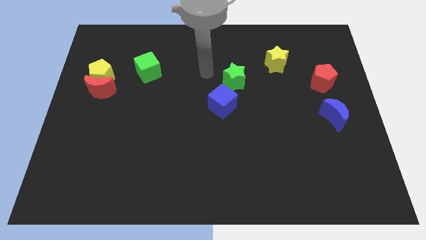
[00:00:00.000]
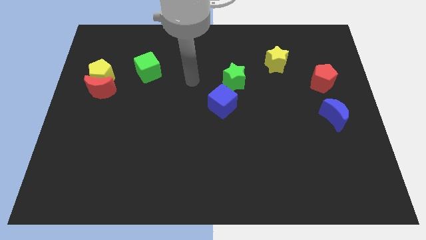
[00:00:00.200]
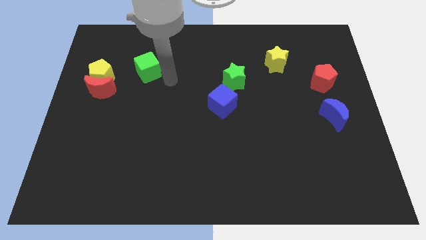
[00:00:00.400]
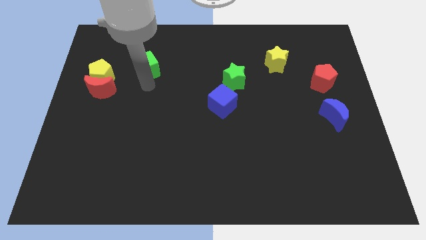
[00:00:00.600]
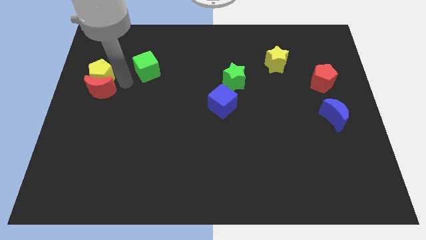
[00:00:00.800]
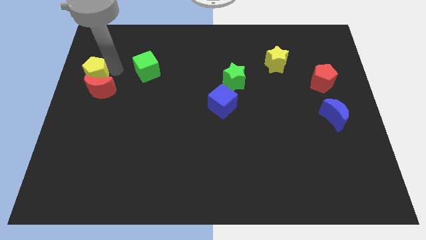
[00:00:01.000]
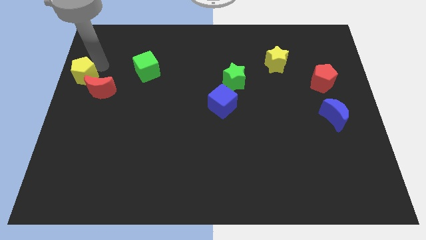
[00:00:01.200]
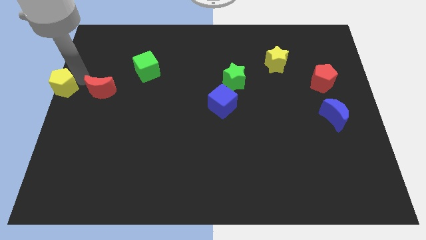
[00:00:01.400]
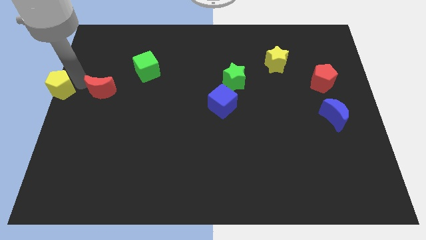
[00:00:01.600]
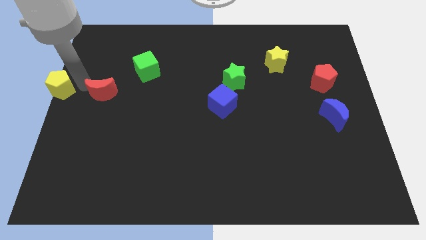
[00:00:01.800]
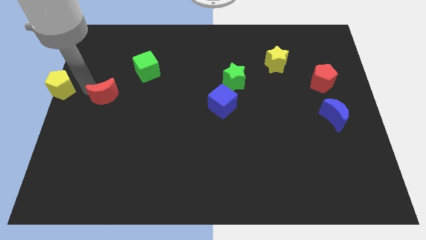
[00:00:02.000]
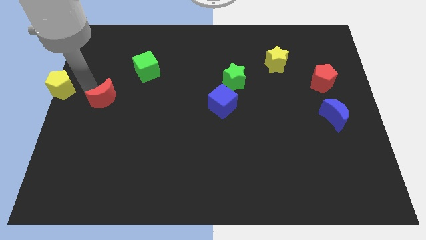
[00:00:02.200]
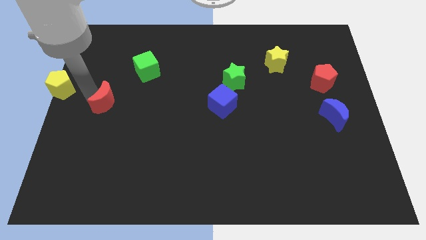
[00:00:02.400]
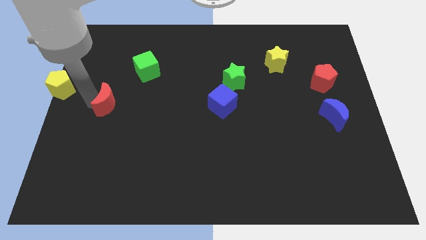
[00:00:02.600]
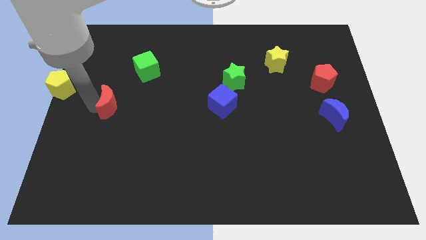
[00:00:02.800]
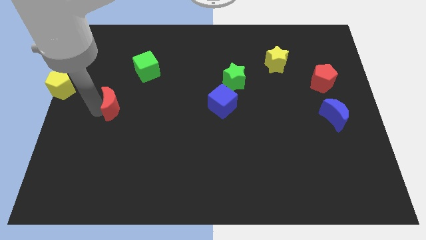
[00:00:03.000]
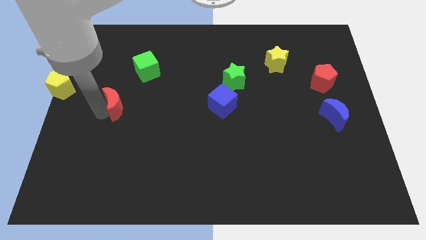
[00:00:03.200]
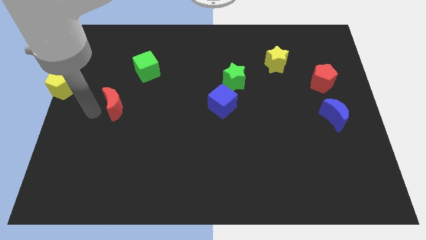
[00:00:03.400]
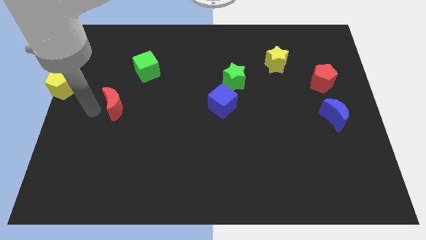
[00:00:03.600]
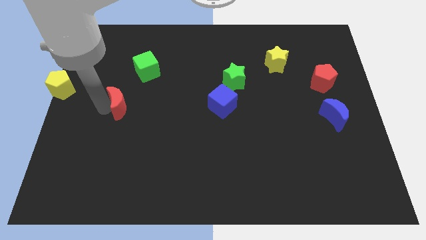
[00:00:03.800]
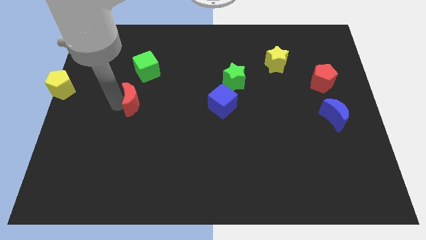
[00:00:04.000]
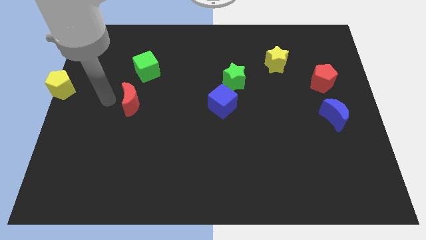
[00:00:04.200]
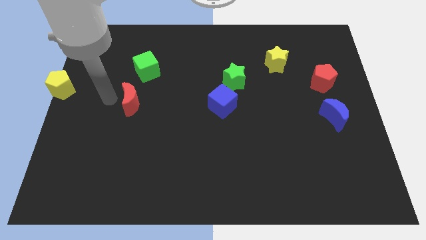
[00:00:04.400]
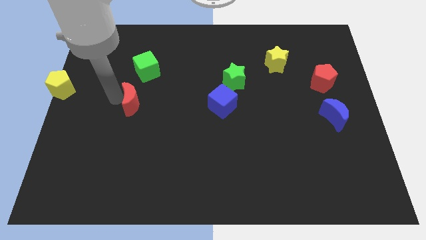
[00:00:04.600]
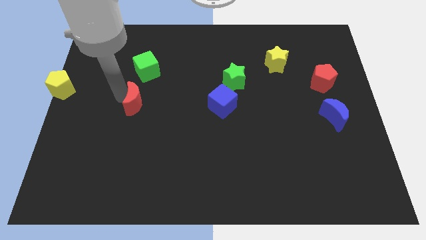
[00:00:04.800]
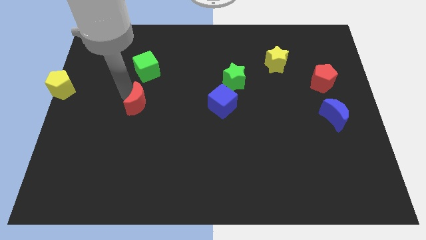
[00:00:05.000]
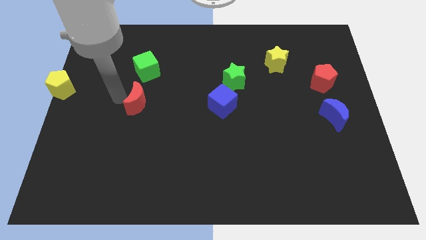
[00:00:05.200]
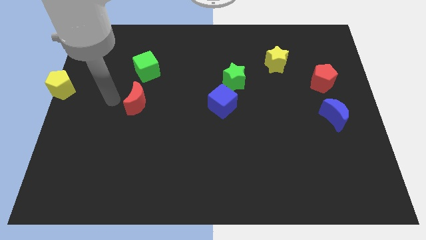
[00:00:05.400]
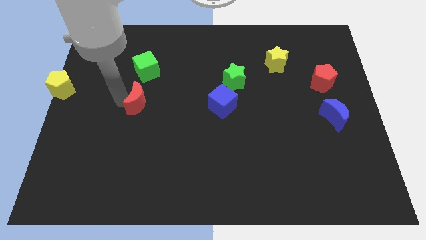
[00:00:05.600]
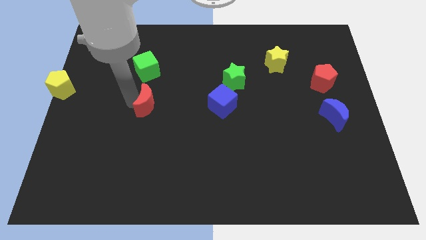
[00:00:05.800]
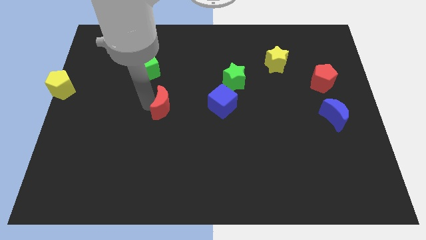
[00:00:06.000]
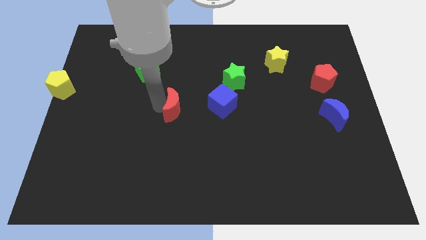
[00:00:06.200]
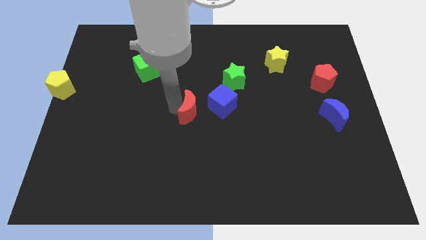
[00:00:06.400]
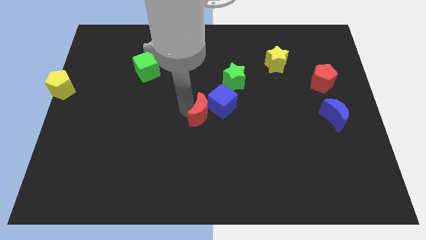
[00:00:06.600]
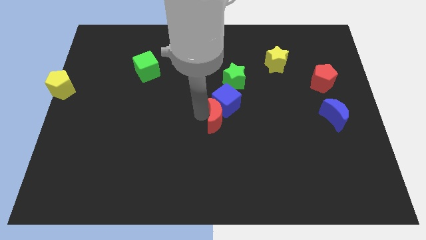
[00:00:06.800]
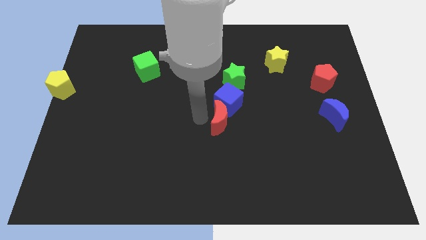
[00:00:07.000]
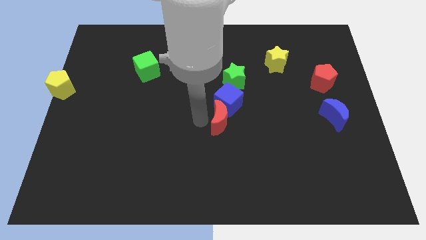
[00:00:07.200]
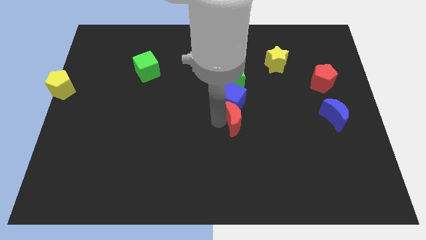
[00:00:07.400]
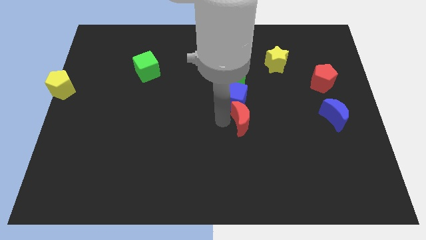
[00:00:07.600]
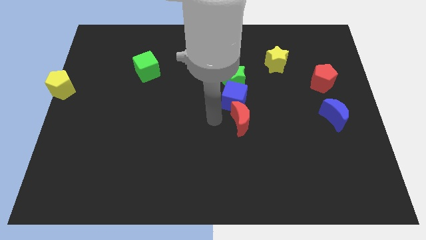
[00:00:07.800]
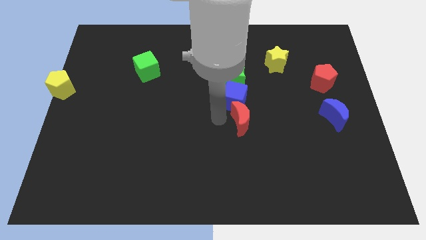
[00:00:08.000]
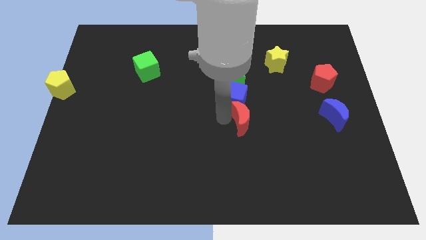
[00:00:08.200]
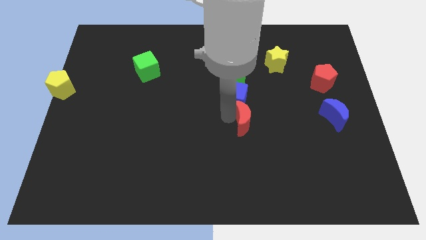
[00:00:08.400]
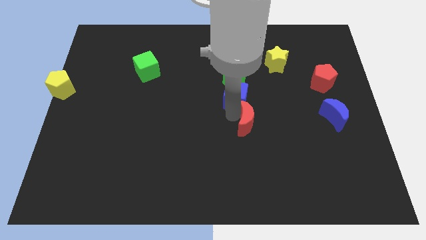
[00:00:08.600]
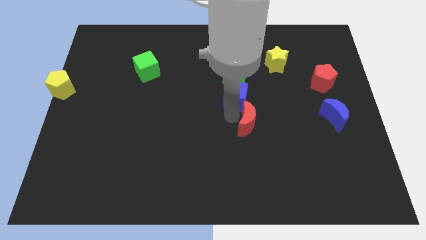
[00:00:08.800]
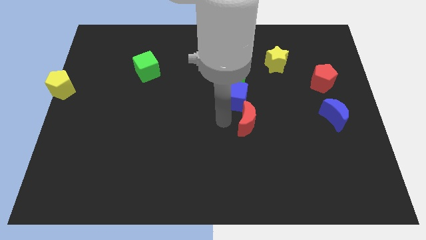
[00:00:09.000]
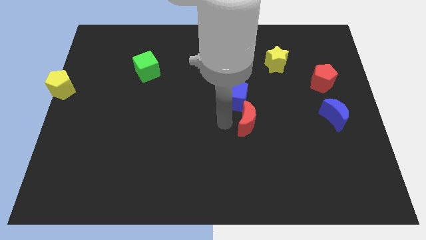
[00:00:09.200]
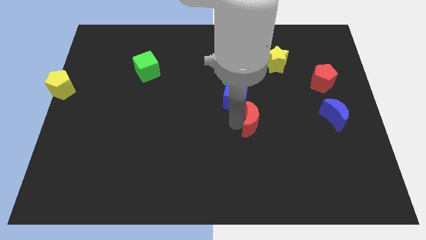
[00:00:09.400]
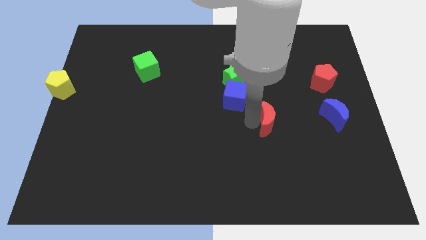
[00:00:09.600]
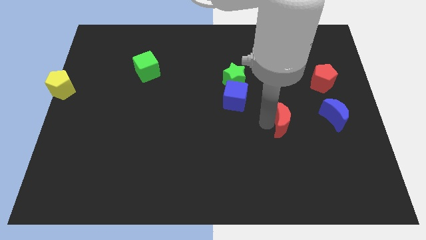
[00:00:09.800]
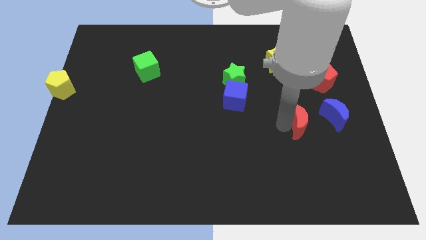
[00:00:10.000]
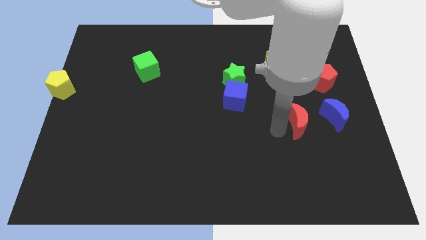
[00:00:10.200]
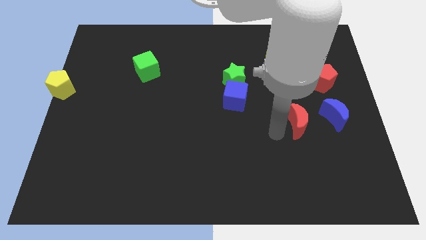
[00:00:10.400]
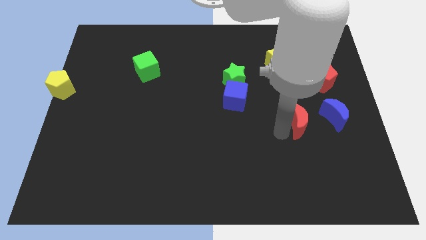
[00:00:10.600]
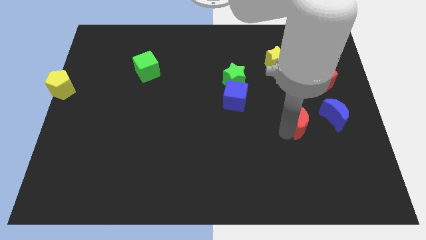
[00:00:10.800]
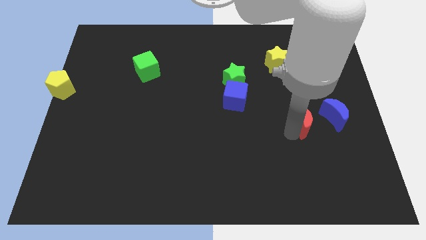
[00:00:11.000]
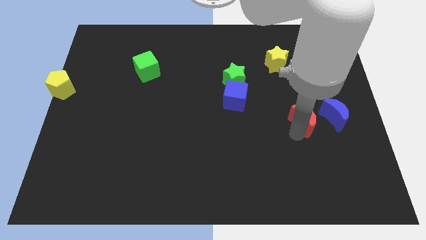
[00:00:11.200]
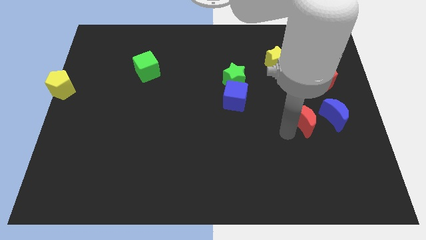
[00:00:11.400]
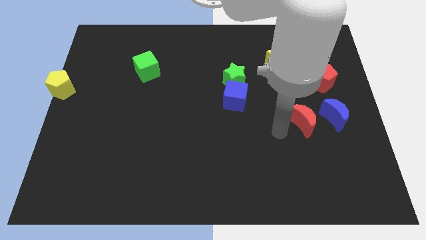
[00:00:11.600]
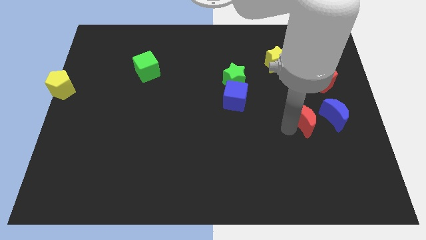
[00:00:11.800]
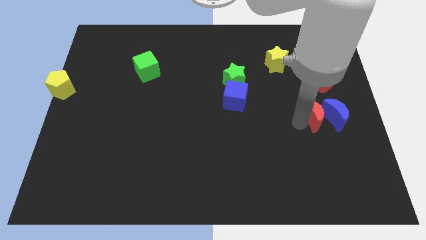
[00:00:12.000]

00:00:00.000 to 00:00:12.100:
push the red moon next to the blue moon

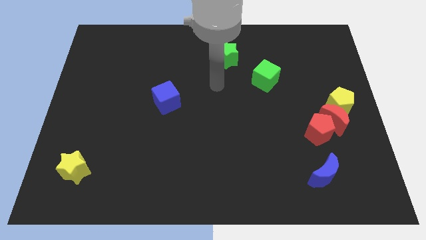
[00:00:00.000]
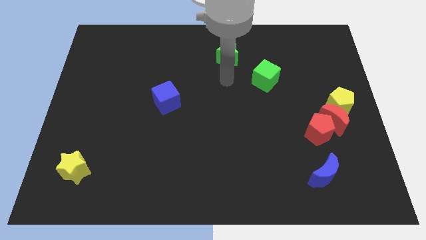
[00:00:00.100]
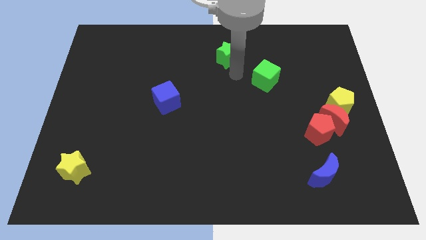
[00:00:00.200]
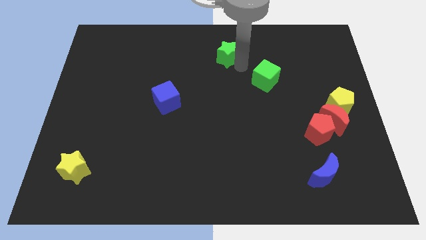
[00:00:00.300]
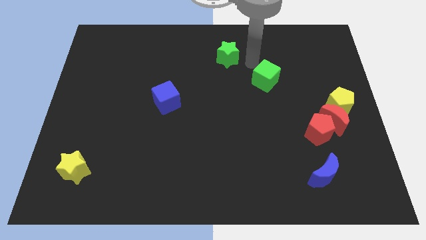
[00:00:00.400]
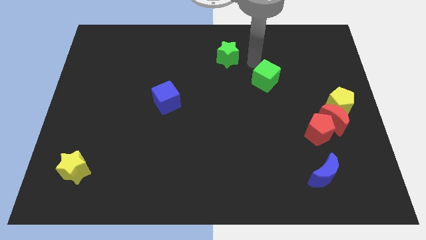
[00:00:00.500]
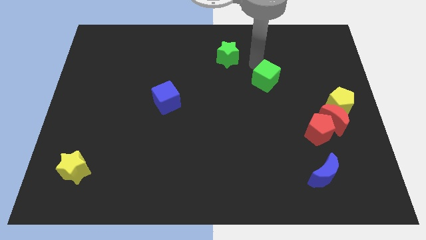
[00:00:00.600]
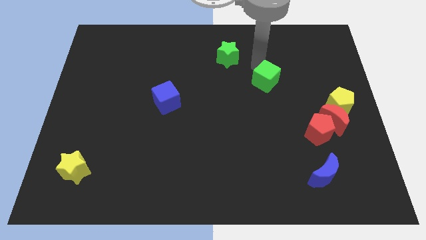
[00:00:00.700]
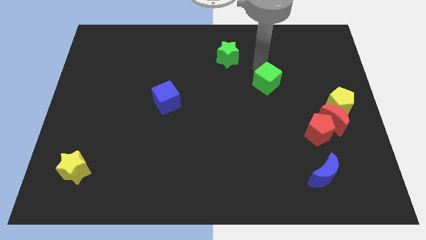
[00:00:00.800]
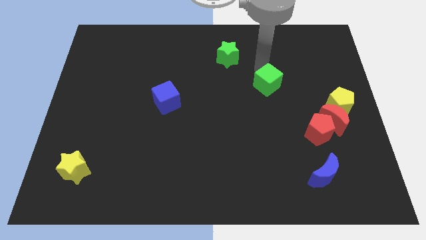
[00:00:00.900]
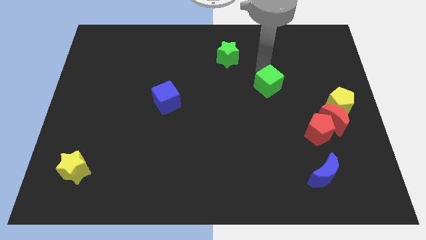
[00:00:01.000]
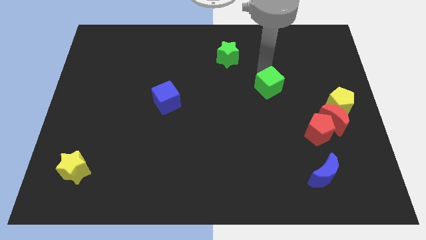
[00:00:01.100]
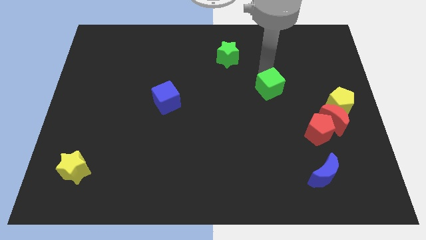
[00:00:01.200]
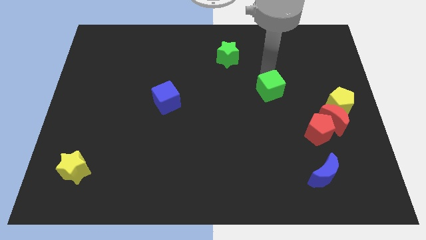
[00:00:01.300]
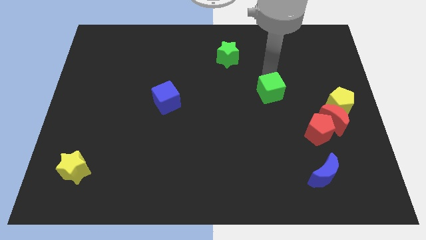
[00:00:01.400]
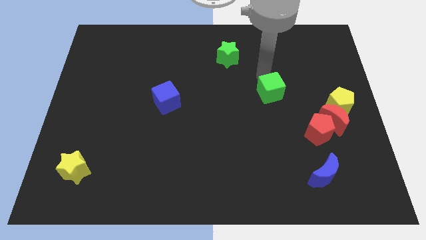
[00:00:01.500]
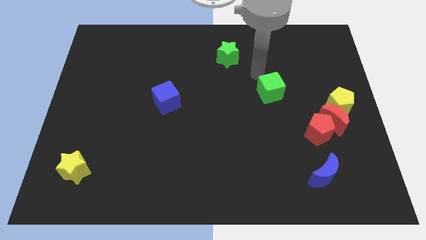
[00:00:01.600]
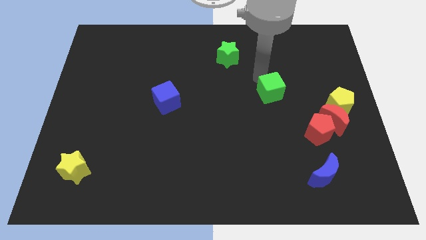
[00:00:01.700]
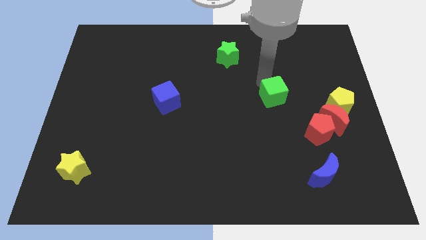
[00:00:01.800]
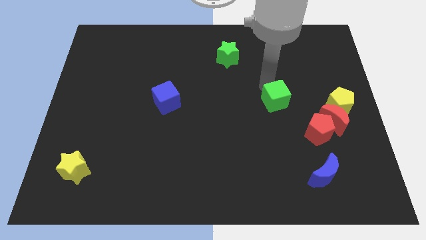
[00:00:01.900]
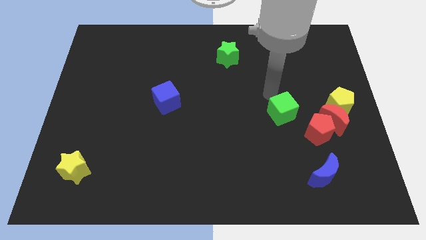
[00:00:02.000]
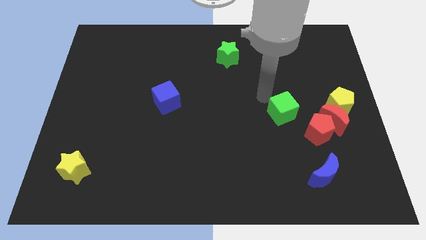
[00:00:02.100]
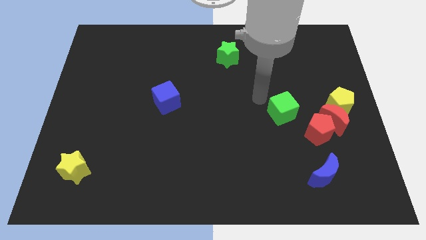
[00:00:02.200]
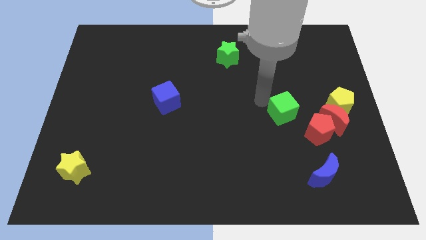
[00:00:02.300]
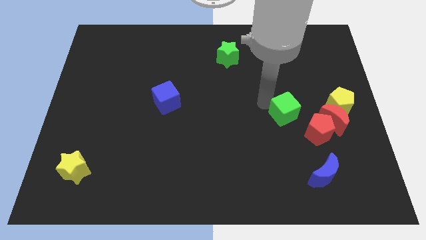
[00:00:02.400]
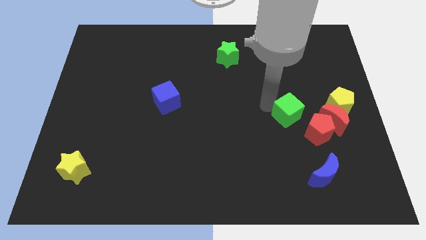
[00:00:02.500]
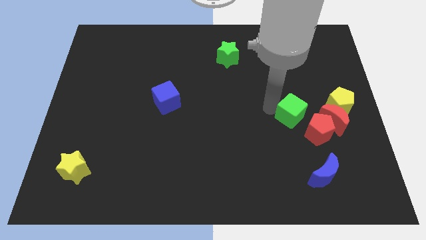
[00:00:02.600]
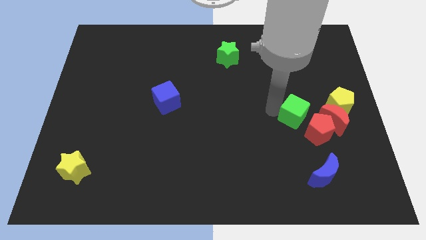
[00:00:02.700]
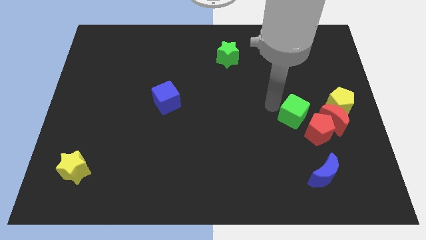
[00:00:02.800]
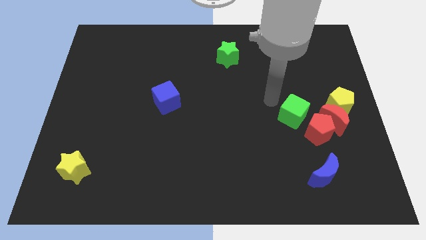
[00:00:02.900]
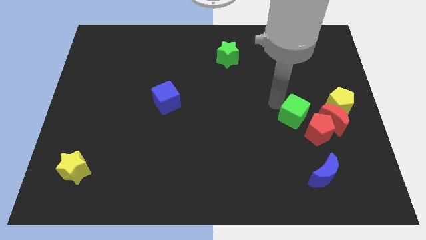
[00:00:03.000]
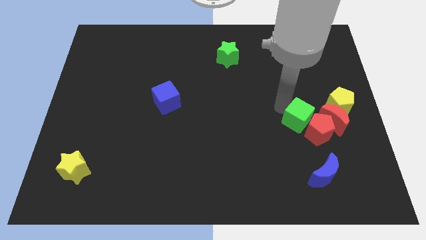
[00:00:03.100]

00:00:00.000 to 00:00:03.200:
put the green cube next to the red pentagon
